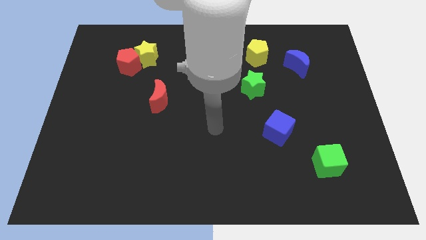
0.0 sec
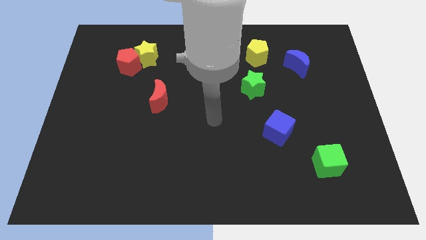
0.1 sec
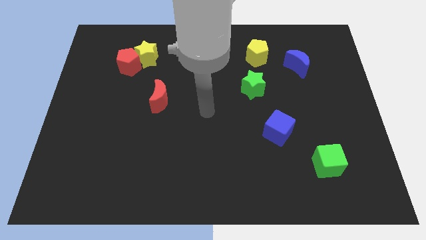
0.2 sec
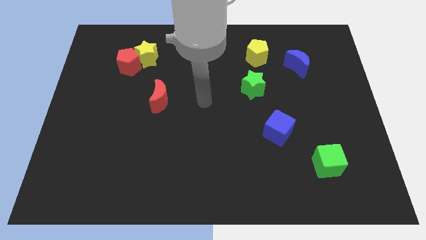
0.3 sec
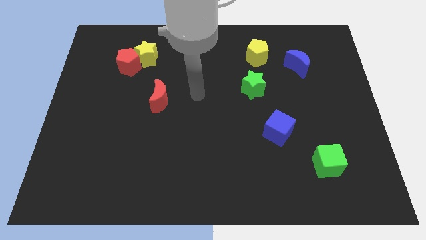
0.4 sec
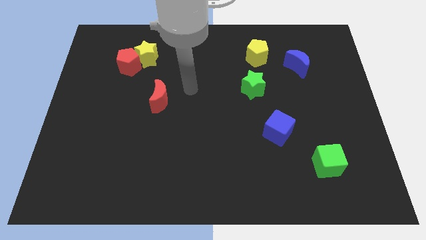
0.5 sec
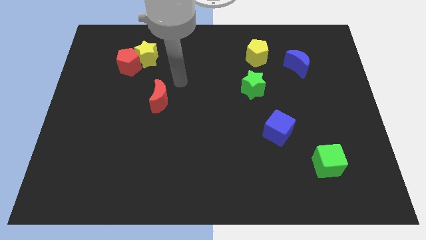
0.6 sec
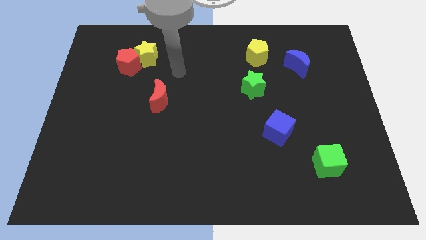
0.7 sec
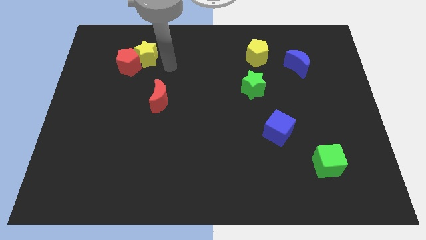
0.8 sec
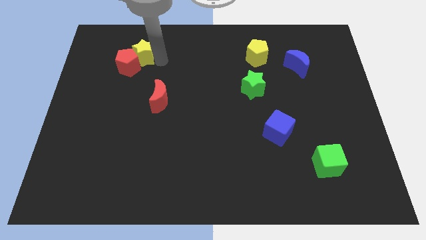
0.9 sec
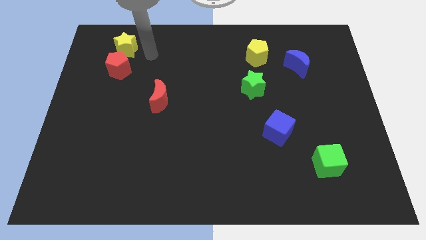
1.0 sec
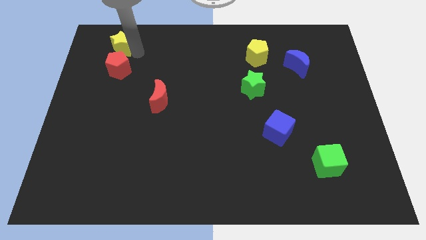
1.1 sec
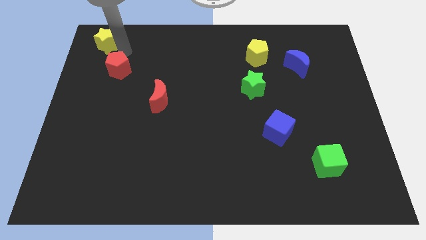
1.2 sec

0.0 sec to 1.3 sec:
pull the red pentagon apart from the yellow star

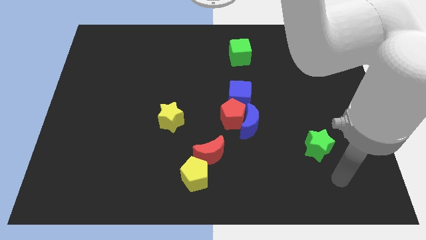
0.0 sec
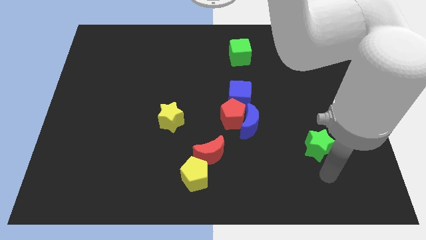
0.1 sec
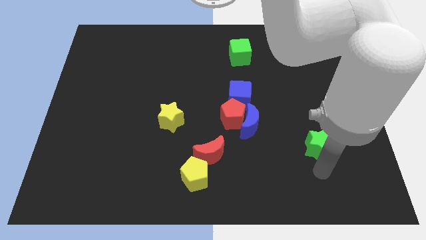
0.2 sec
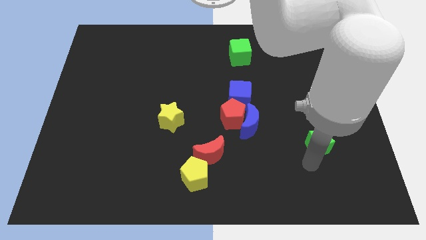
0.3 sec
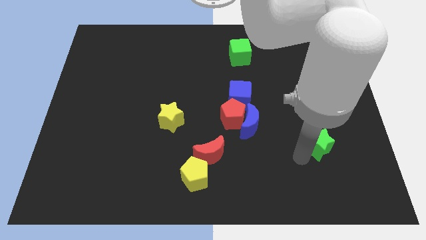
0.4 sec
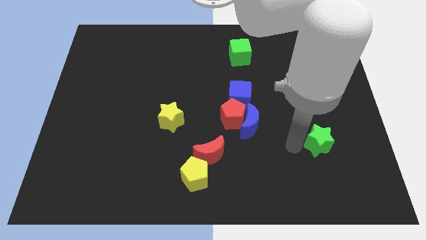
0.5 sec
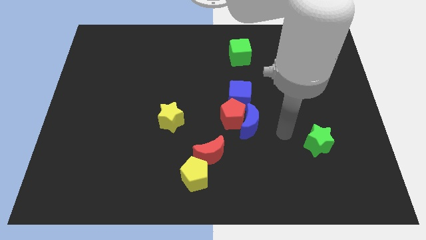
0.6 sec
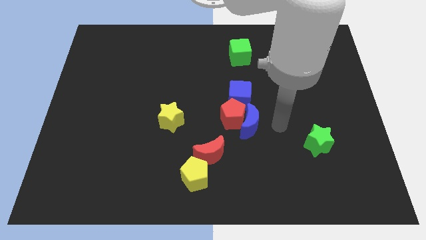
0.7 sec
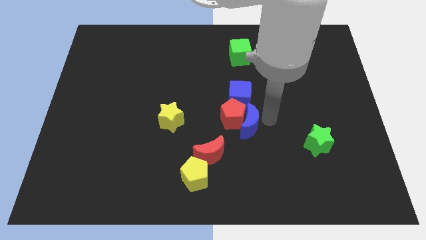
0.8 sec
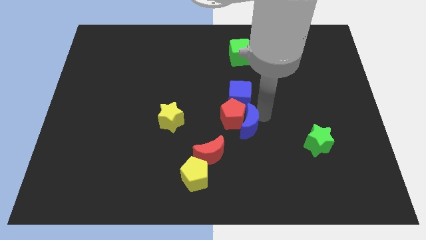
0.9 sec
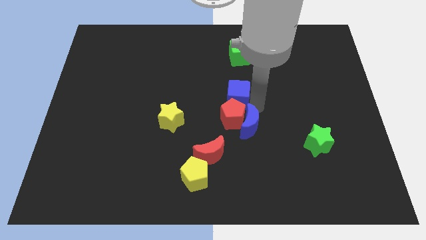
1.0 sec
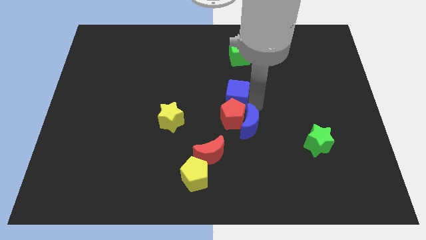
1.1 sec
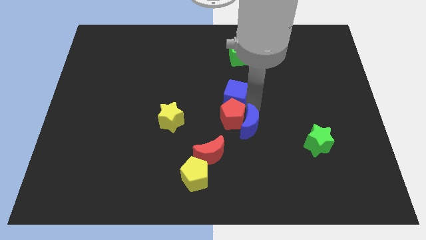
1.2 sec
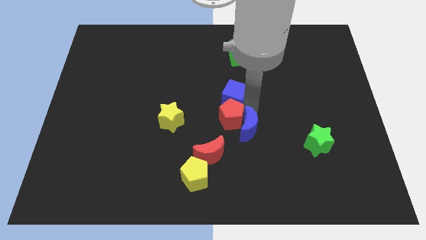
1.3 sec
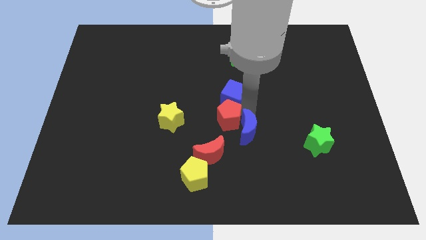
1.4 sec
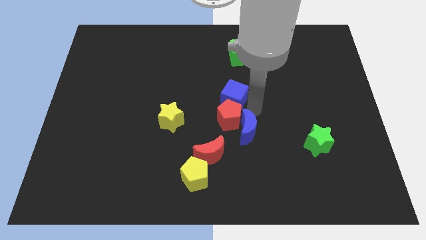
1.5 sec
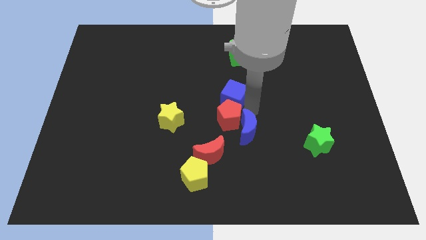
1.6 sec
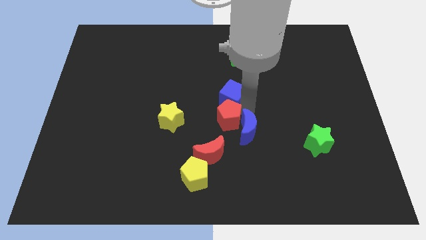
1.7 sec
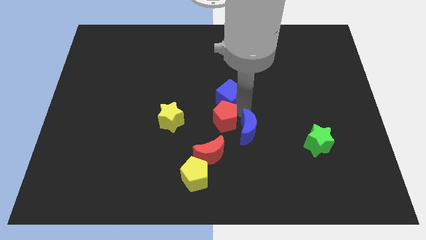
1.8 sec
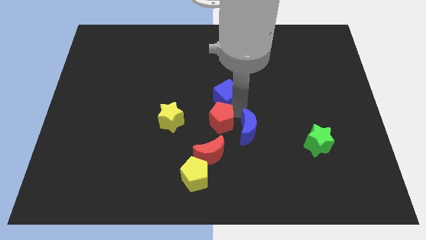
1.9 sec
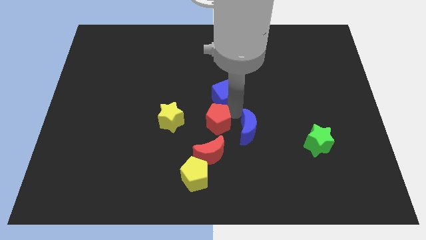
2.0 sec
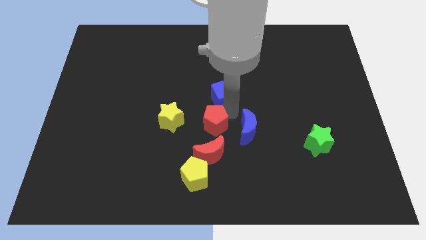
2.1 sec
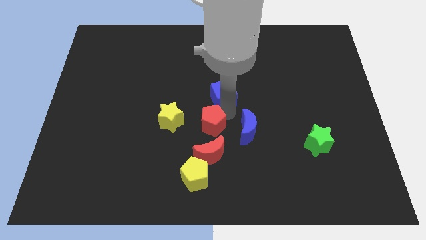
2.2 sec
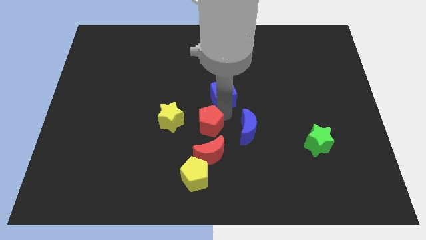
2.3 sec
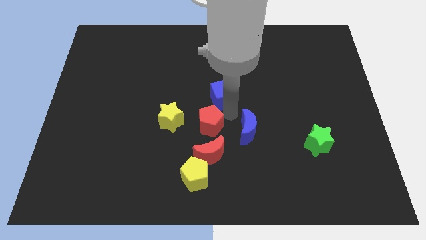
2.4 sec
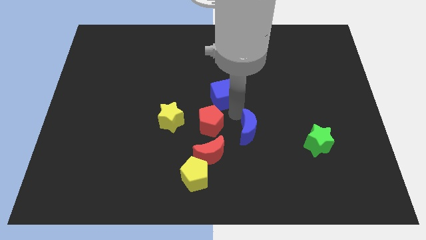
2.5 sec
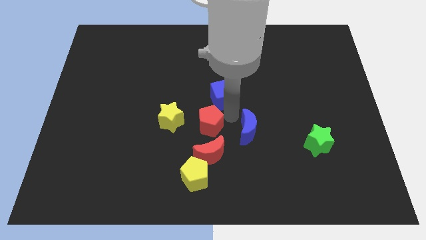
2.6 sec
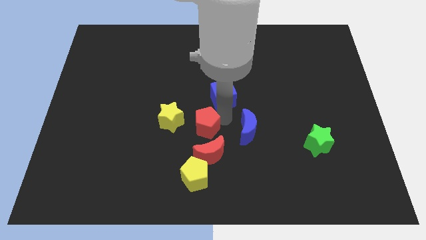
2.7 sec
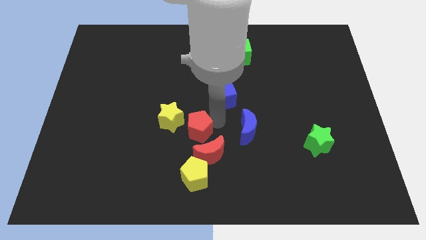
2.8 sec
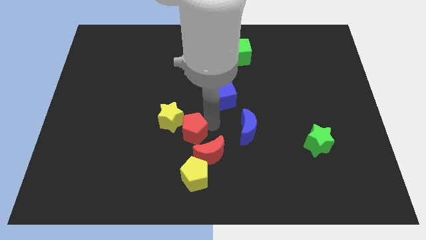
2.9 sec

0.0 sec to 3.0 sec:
pull the red pentagon apart from the blue moon and blue cube

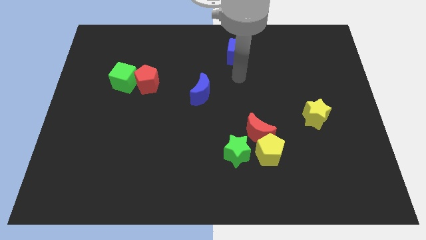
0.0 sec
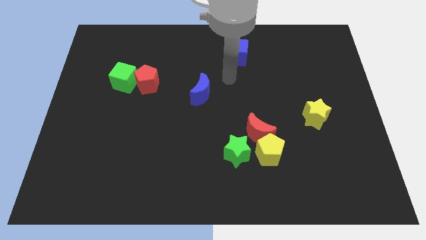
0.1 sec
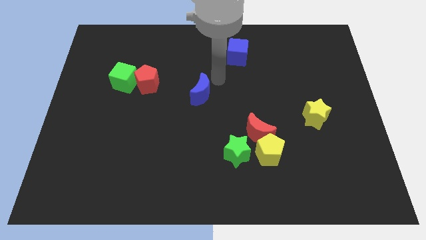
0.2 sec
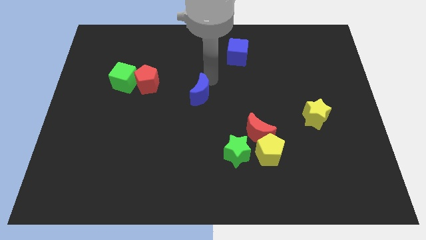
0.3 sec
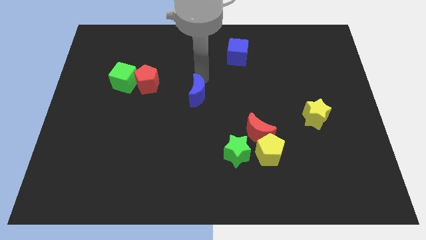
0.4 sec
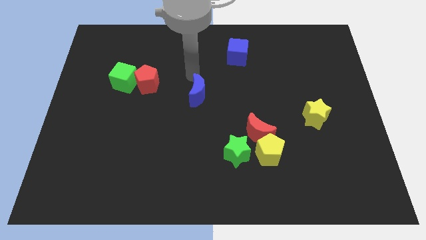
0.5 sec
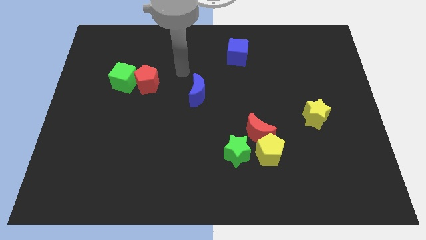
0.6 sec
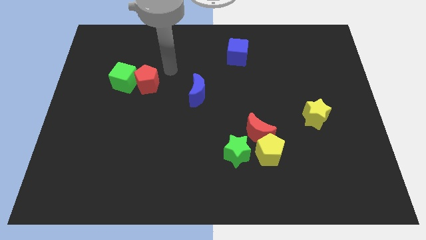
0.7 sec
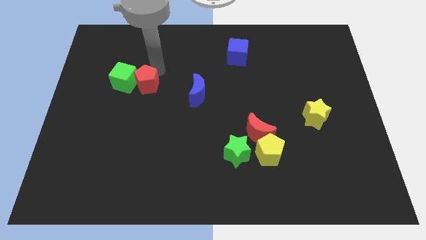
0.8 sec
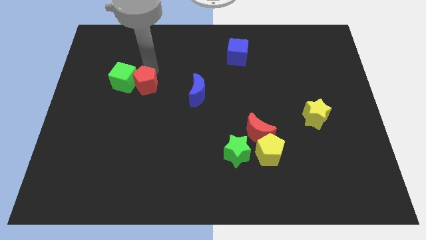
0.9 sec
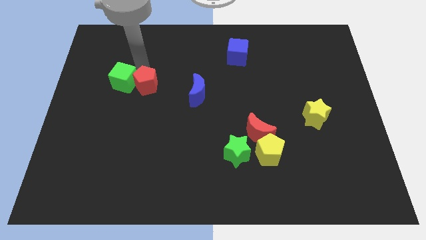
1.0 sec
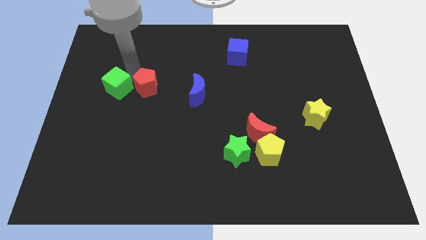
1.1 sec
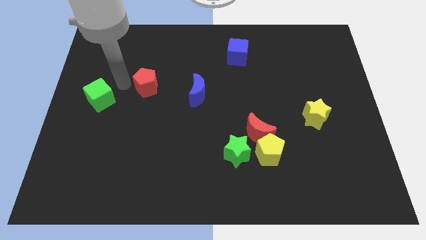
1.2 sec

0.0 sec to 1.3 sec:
pull the red pentagon apart from the green cube

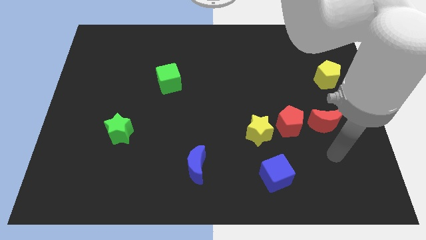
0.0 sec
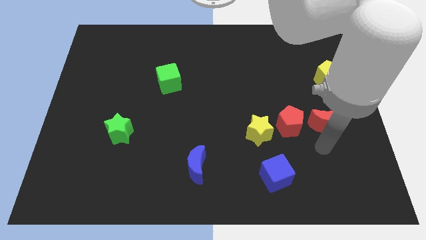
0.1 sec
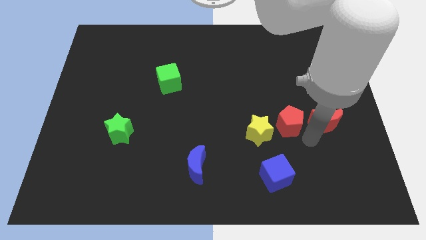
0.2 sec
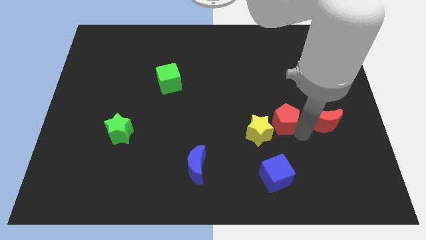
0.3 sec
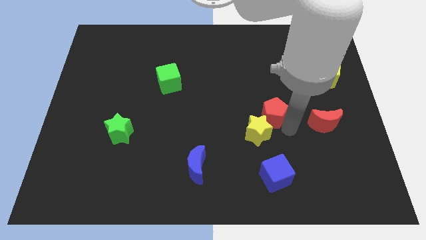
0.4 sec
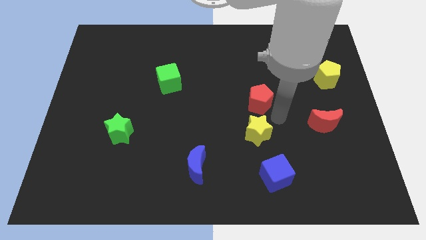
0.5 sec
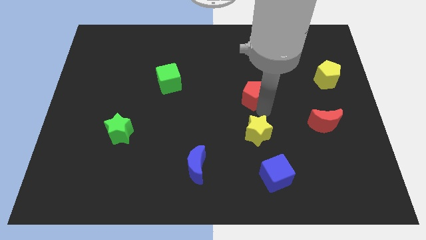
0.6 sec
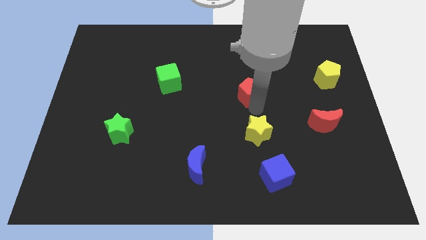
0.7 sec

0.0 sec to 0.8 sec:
pull the yellow star apart from the red pentagon

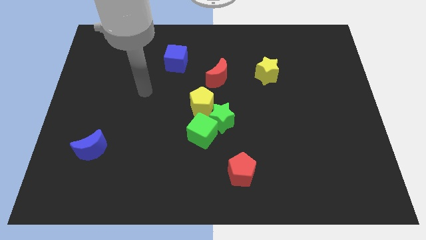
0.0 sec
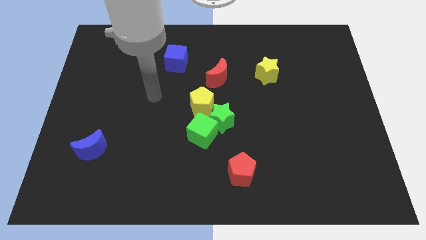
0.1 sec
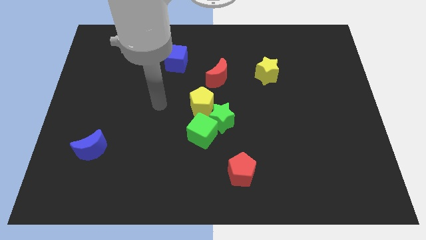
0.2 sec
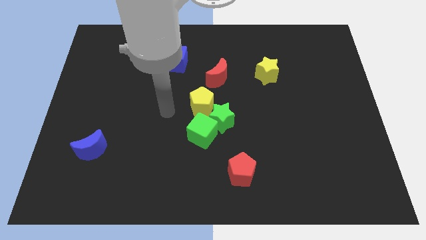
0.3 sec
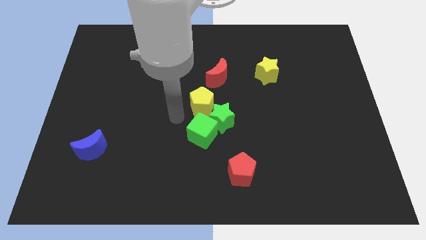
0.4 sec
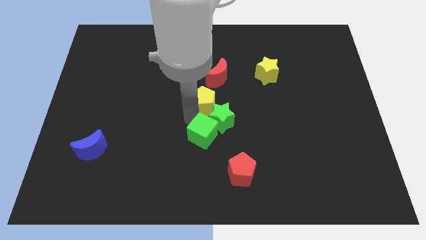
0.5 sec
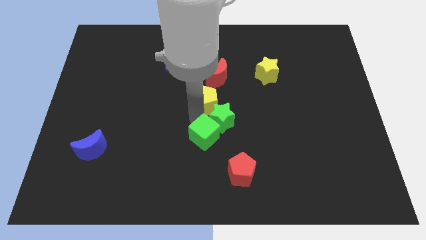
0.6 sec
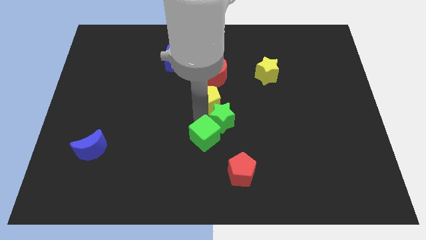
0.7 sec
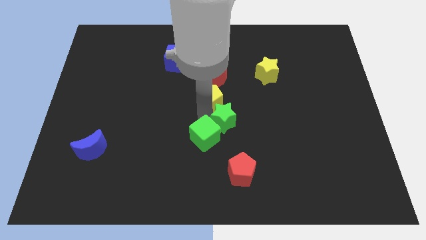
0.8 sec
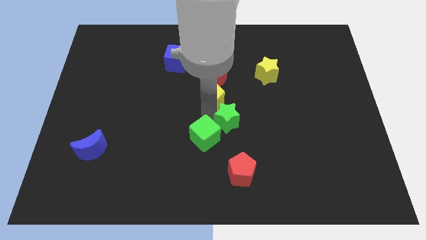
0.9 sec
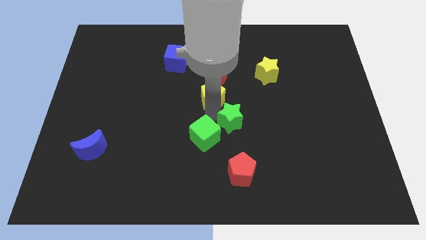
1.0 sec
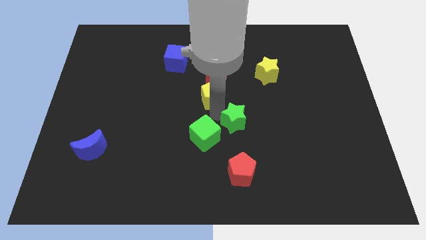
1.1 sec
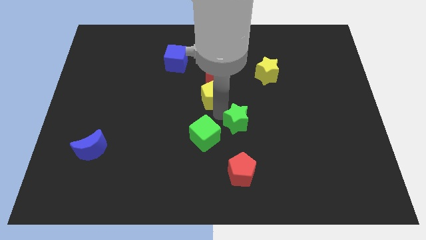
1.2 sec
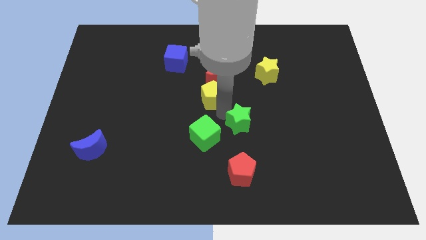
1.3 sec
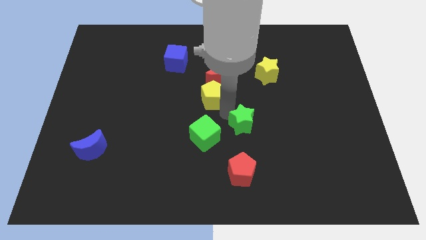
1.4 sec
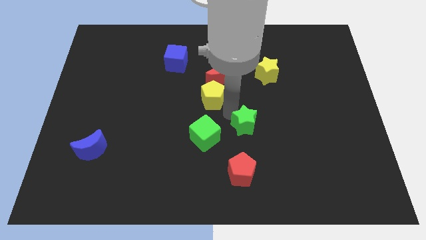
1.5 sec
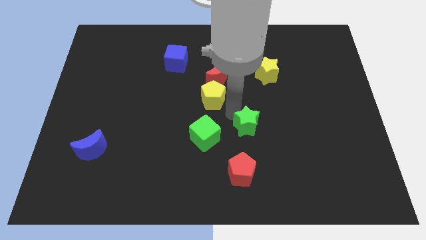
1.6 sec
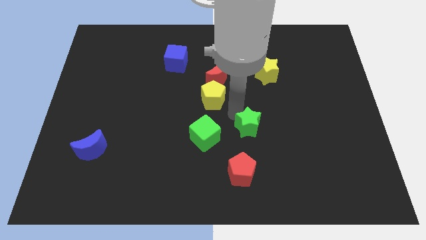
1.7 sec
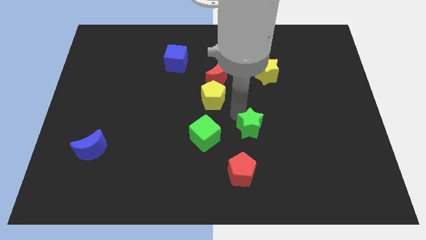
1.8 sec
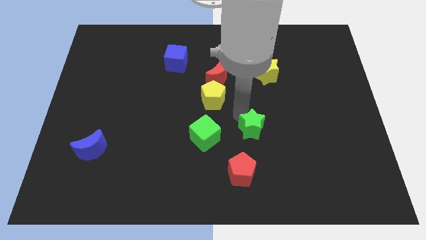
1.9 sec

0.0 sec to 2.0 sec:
pull the green star apart from the green cube and yellow pentagon

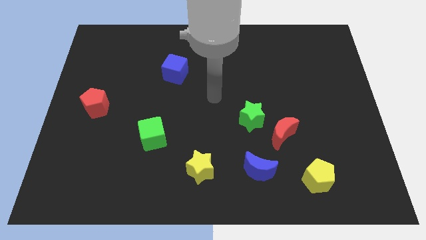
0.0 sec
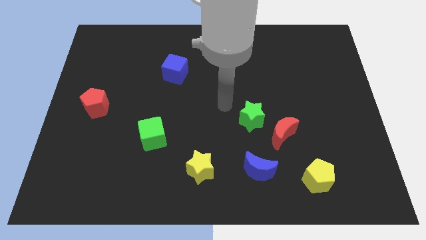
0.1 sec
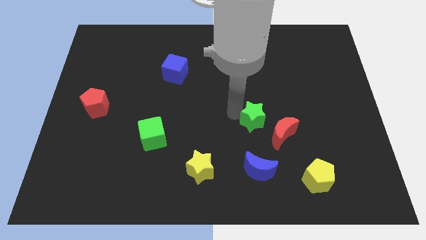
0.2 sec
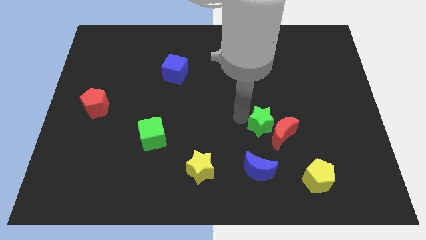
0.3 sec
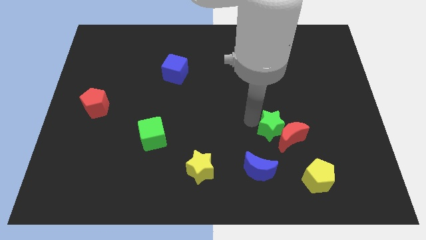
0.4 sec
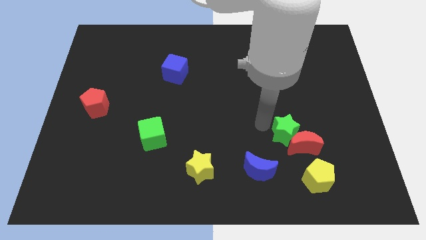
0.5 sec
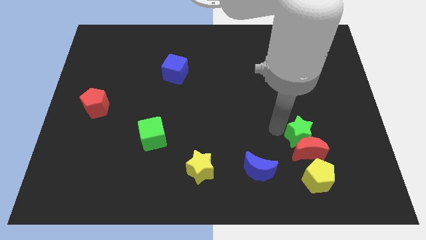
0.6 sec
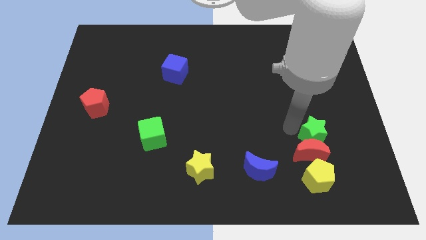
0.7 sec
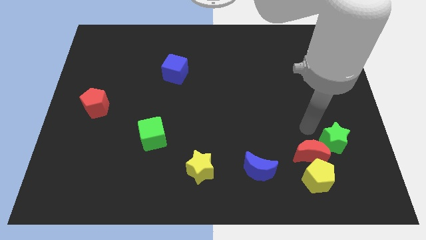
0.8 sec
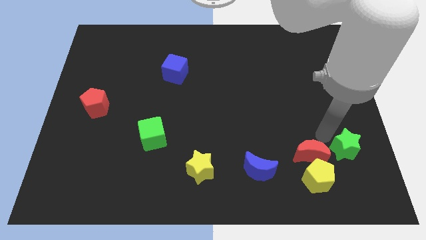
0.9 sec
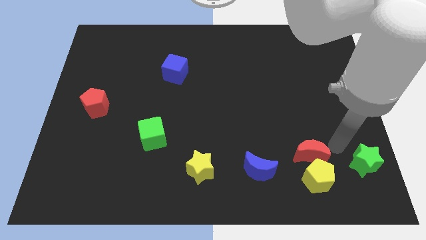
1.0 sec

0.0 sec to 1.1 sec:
move the red moon away from the green star
